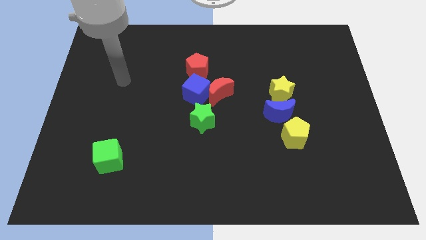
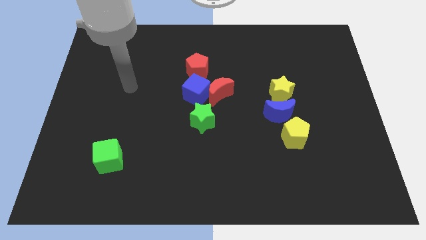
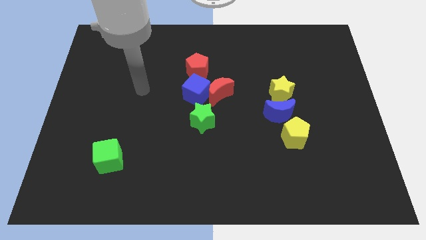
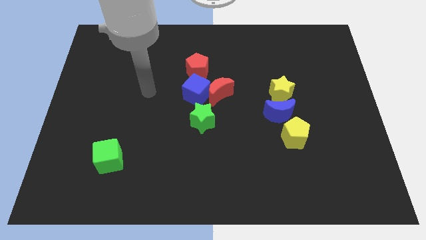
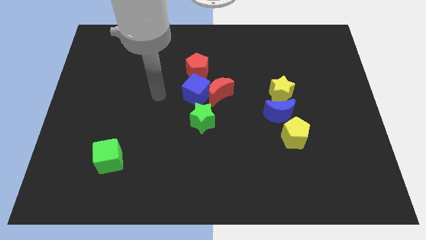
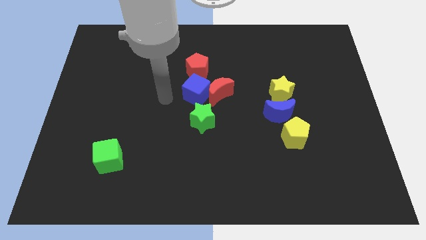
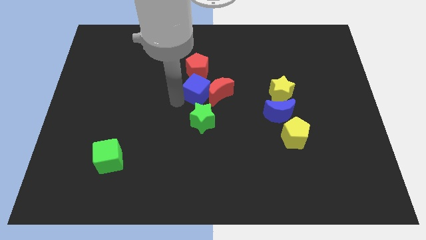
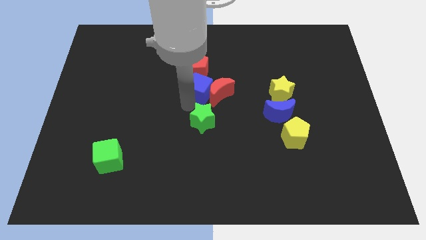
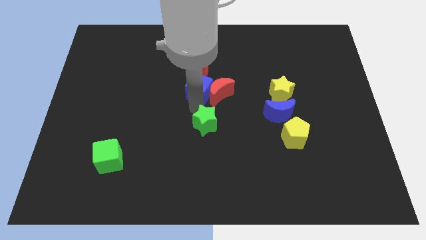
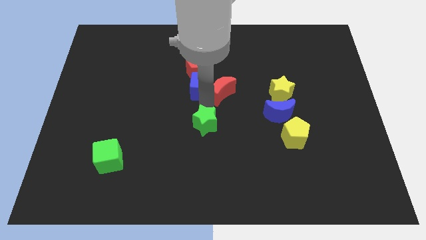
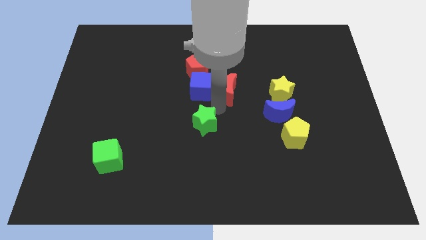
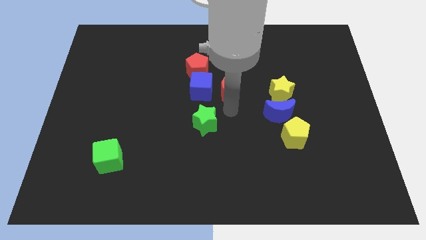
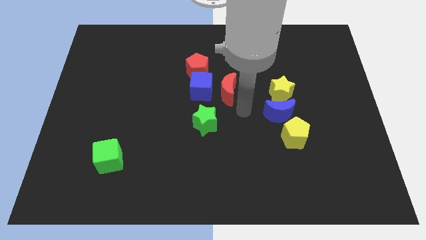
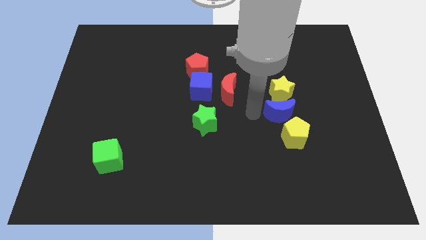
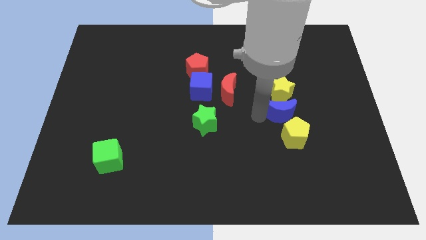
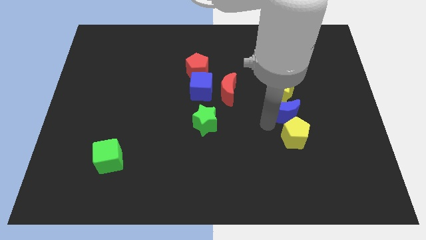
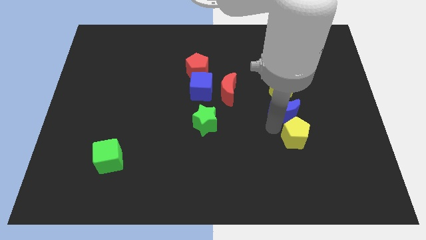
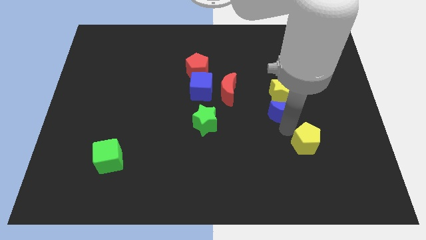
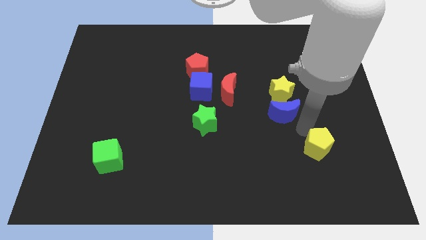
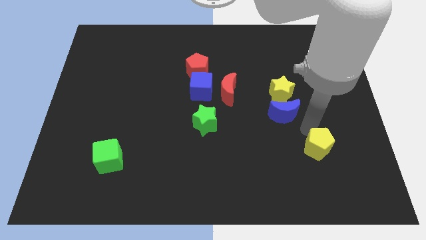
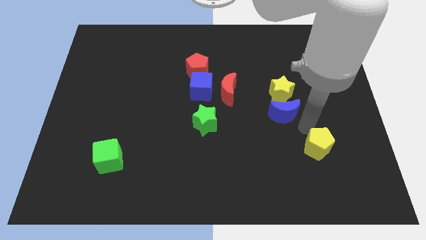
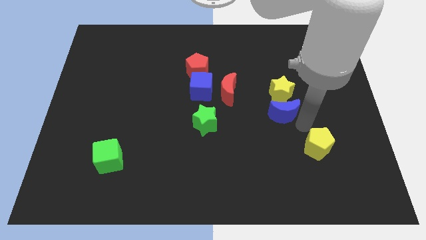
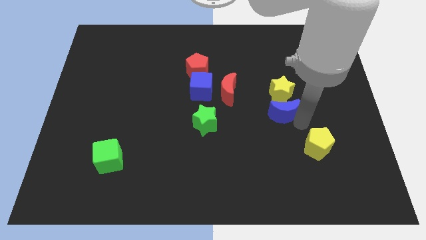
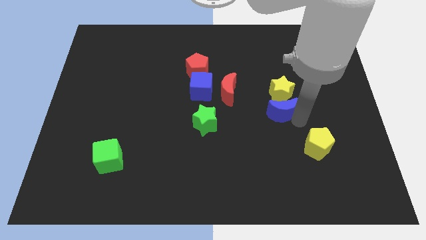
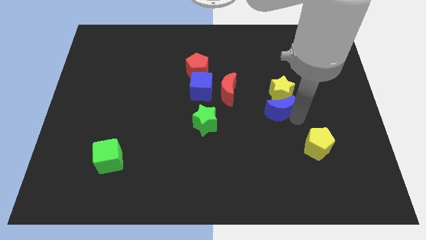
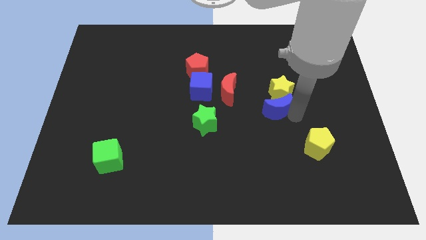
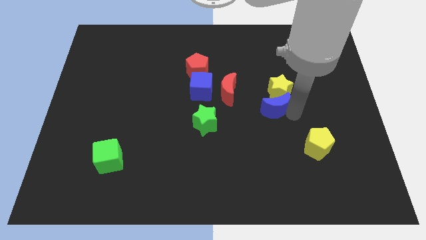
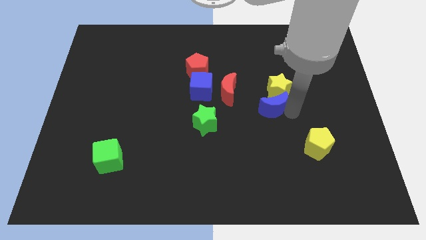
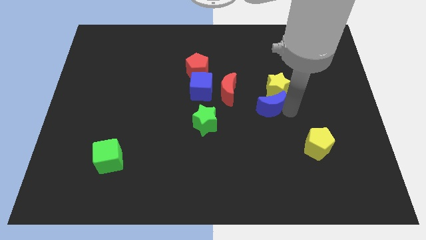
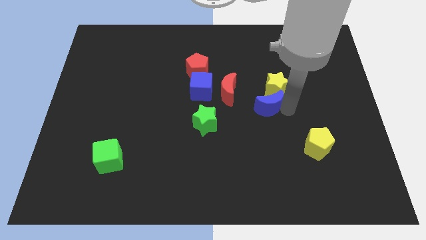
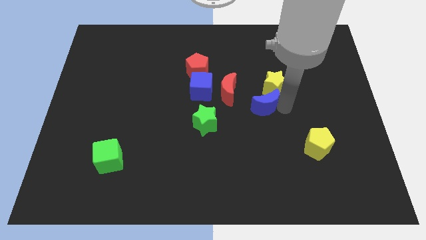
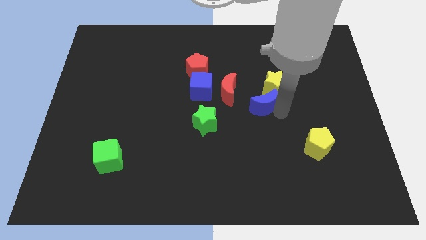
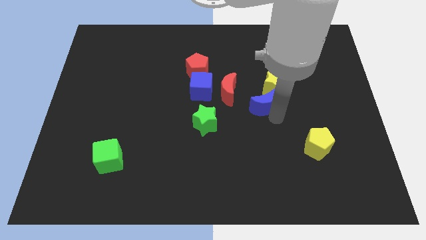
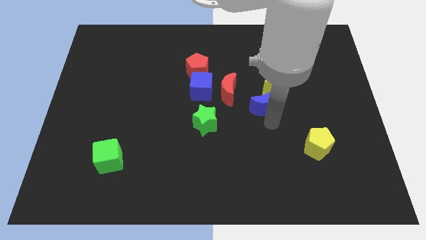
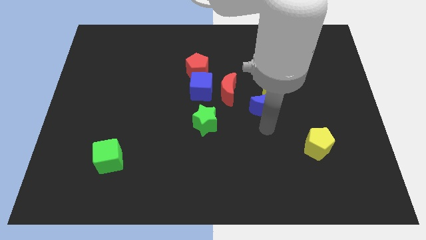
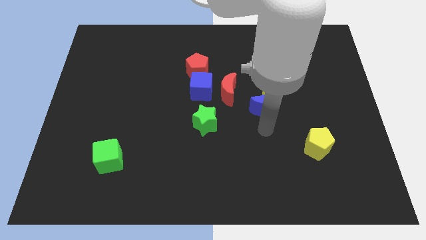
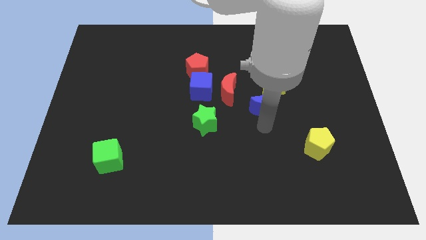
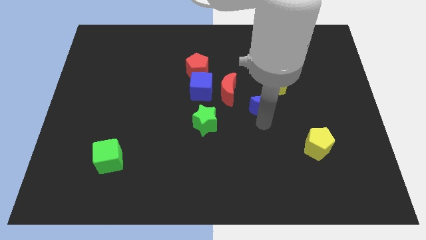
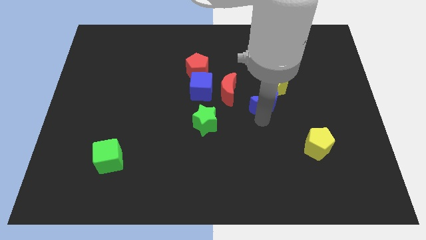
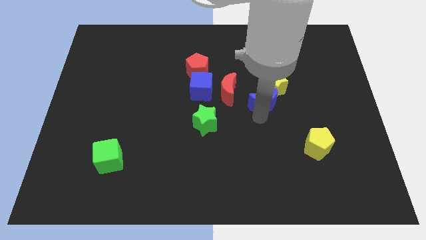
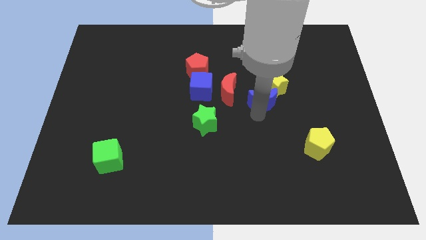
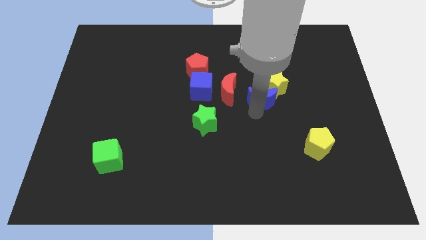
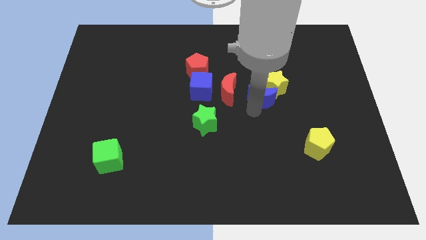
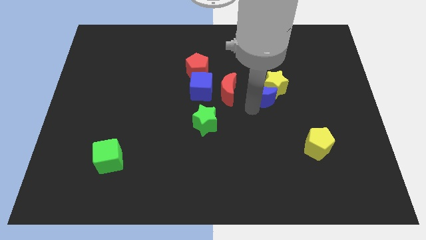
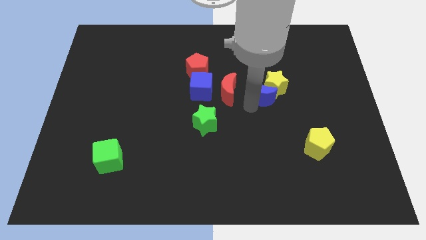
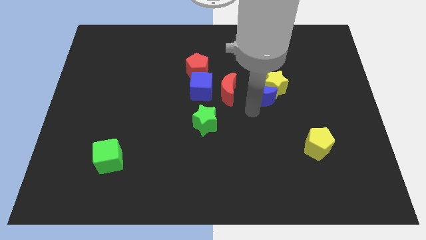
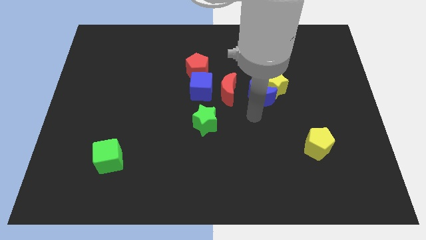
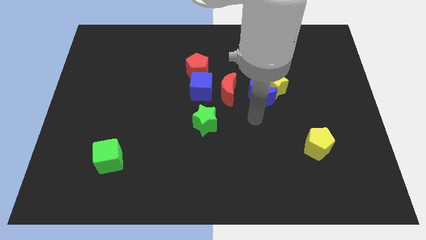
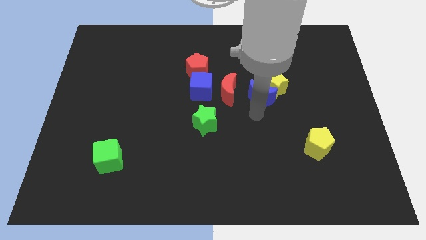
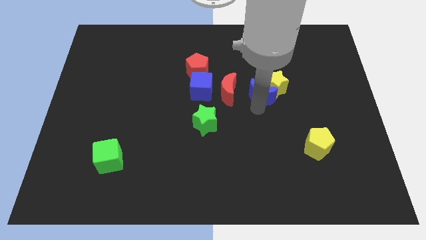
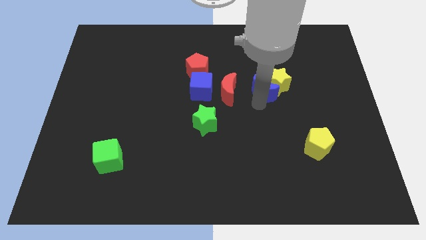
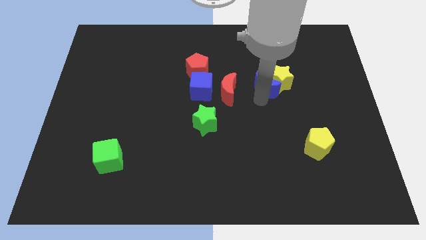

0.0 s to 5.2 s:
push the blue moon up a little bit

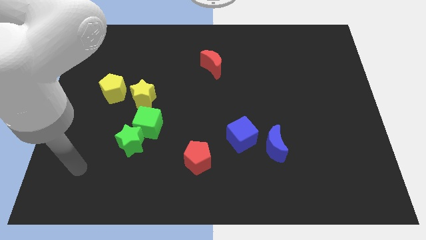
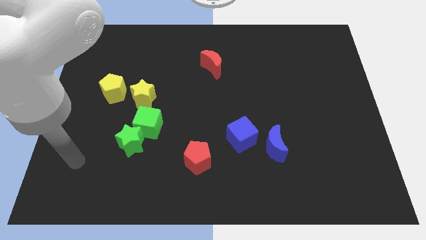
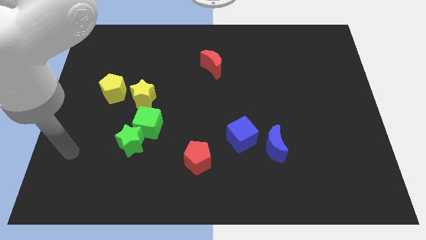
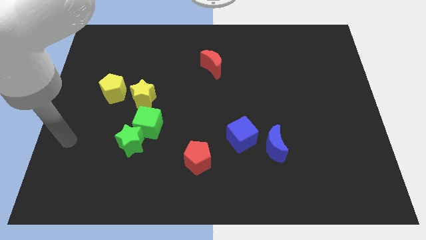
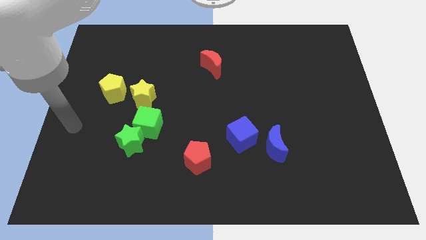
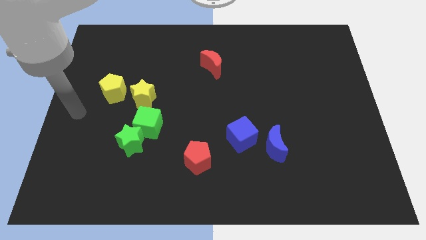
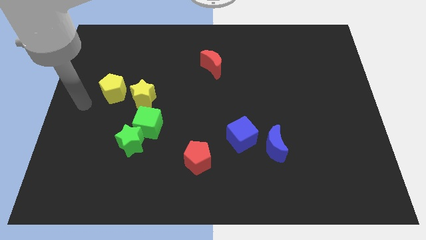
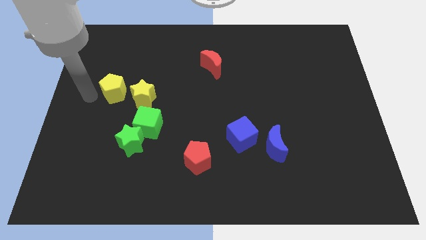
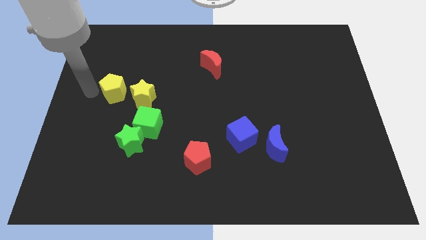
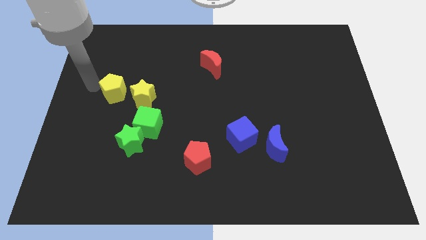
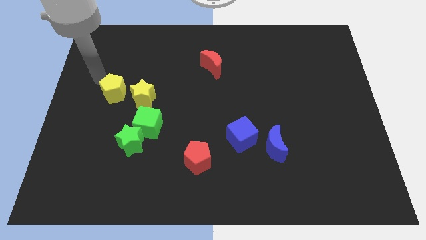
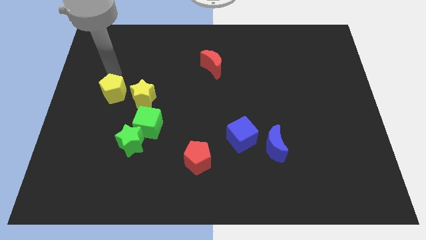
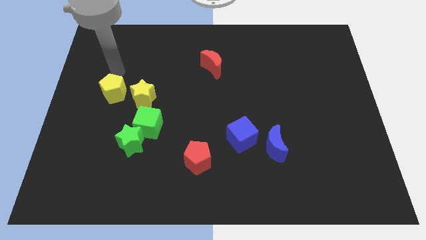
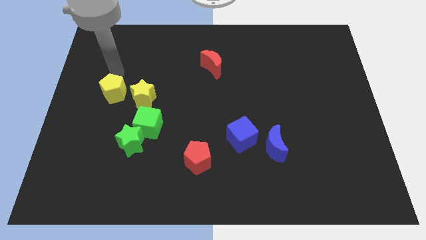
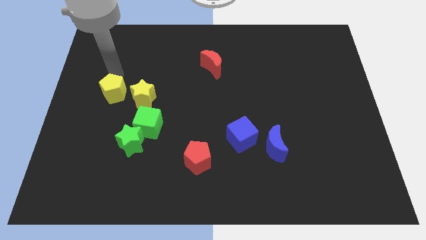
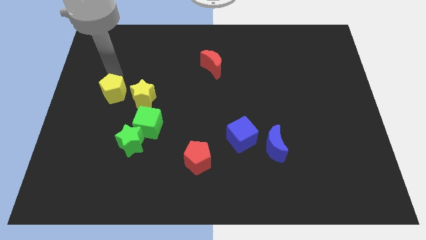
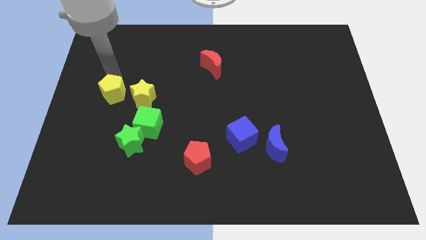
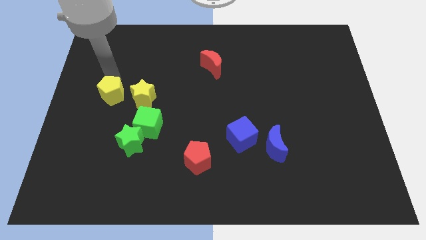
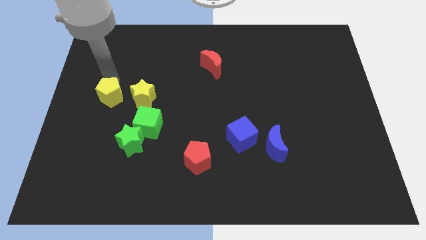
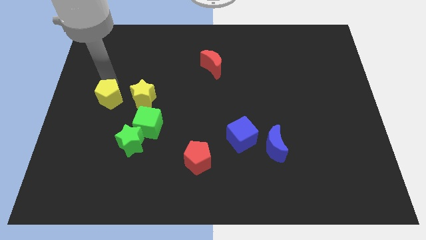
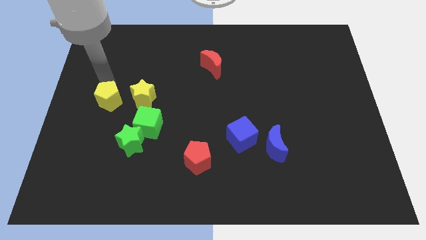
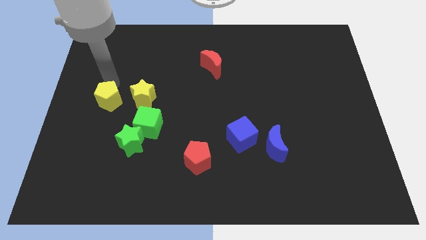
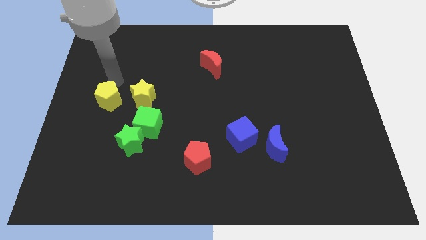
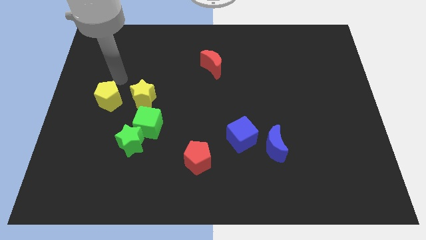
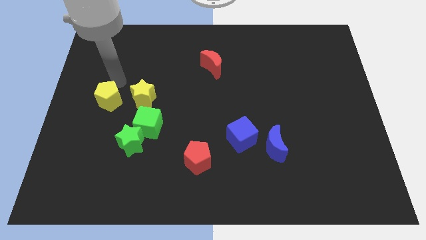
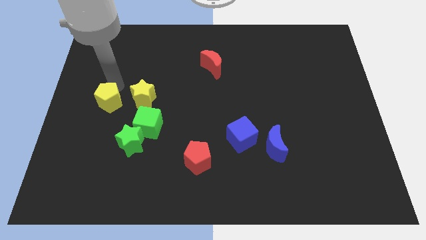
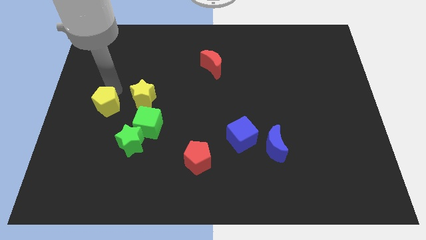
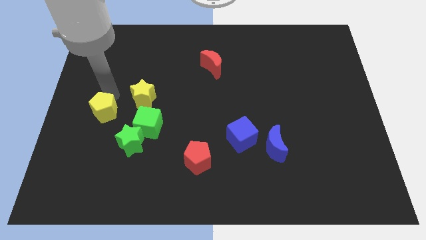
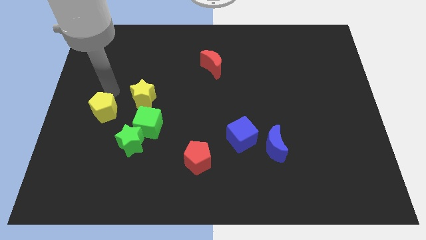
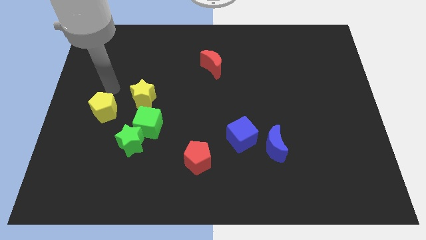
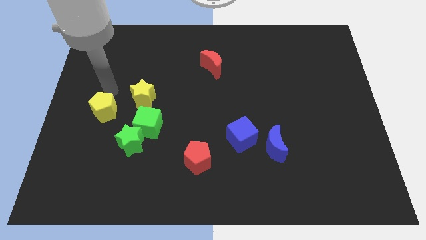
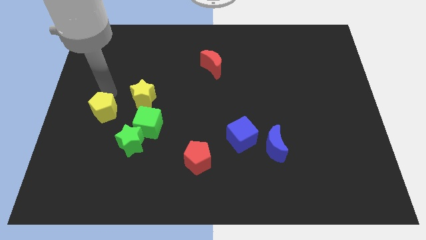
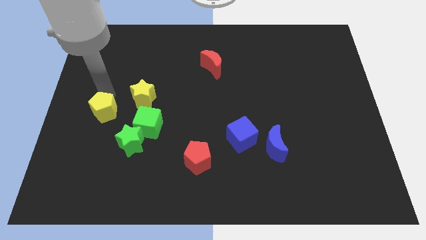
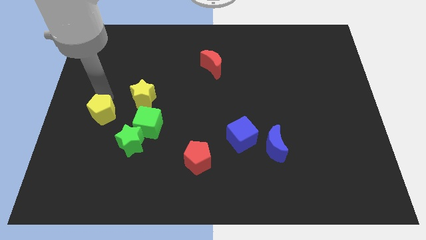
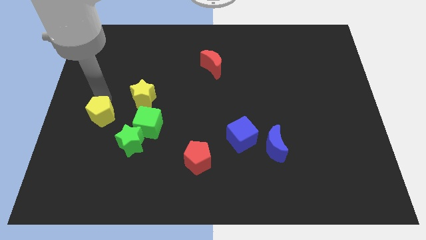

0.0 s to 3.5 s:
slightly push the yellow pentagon down
